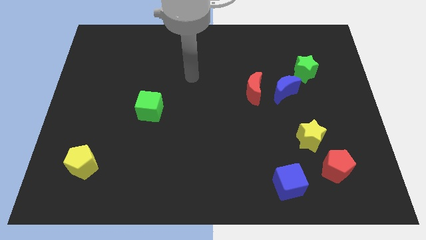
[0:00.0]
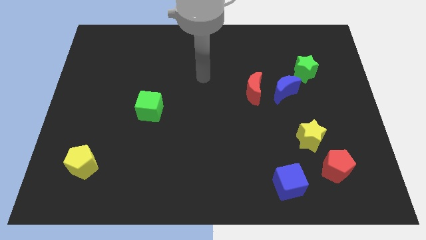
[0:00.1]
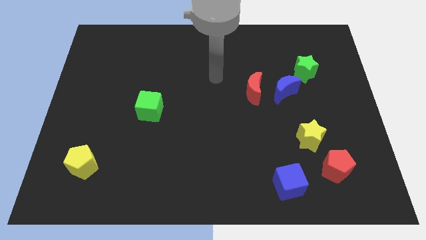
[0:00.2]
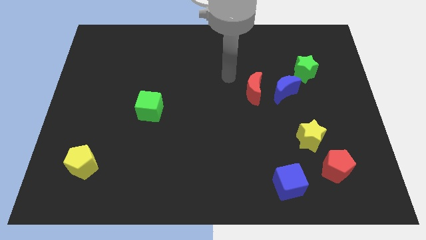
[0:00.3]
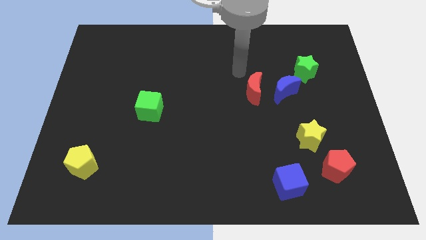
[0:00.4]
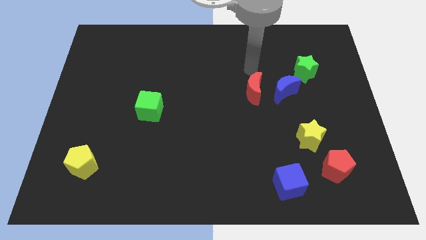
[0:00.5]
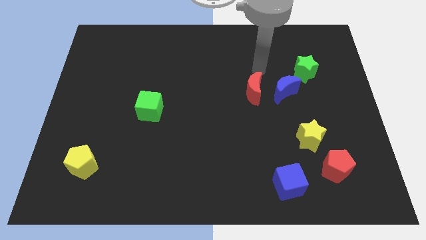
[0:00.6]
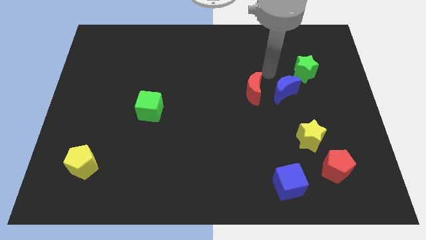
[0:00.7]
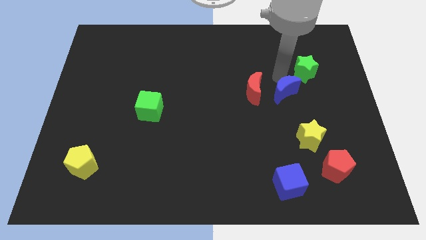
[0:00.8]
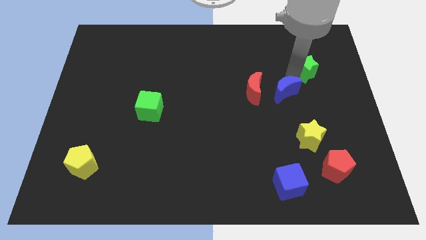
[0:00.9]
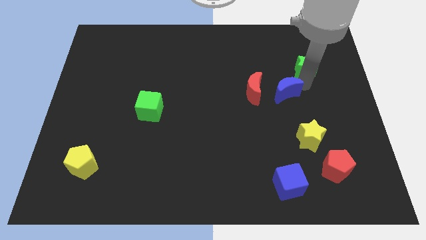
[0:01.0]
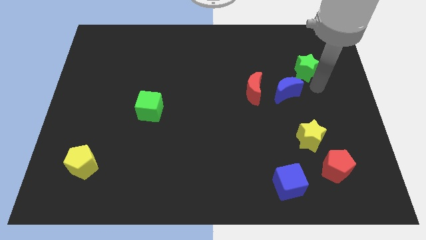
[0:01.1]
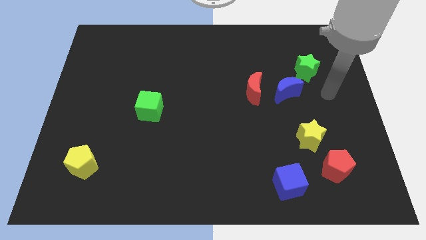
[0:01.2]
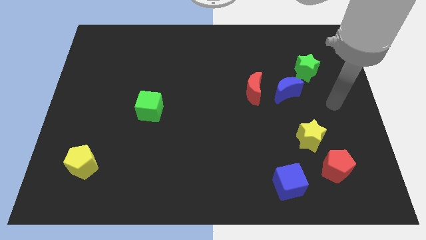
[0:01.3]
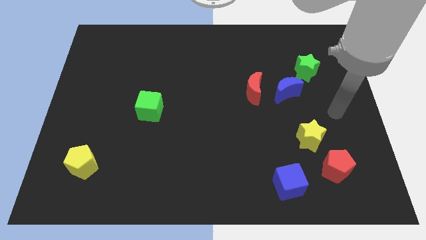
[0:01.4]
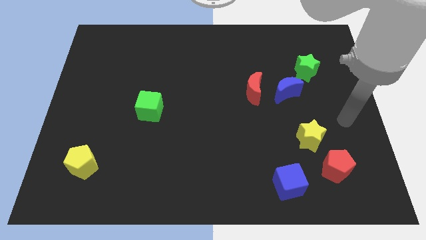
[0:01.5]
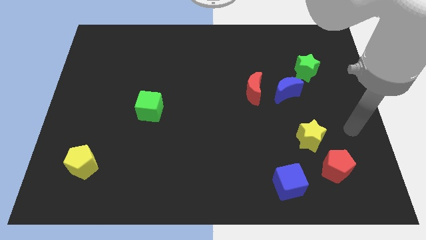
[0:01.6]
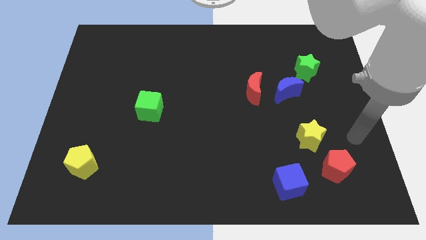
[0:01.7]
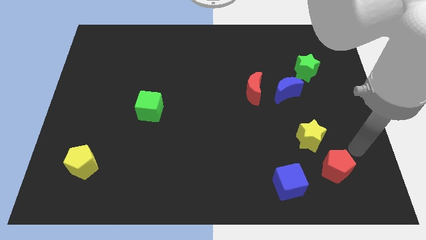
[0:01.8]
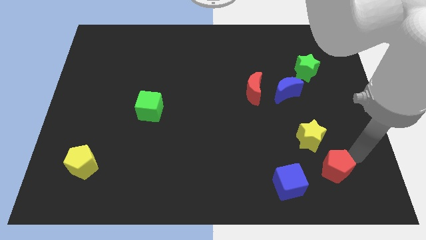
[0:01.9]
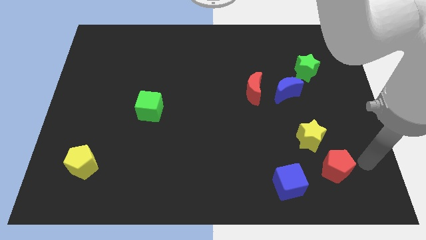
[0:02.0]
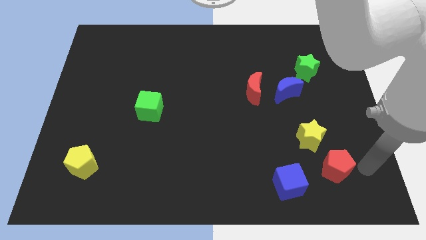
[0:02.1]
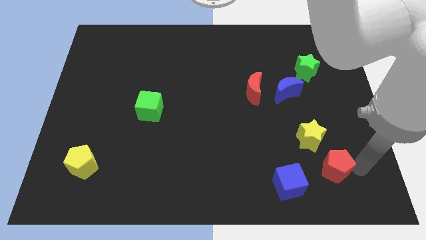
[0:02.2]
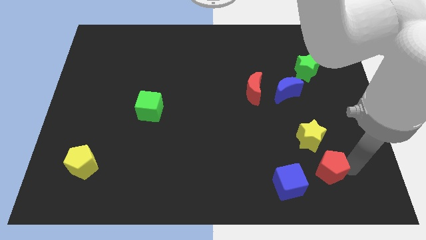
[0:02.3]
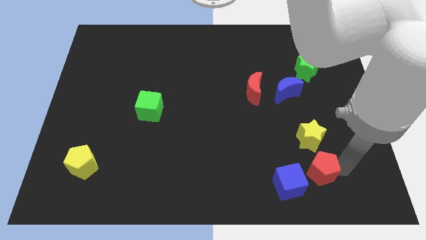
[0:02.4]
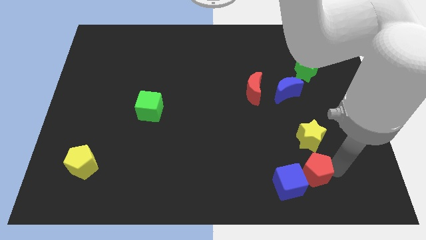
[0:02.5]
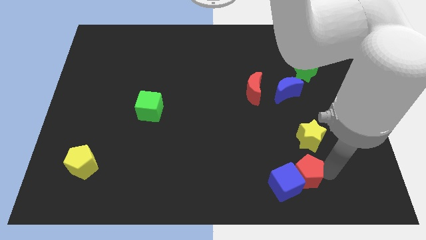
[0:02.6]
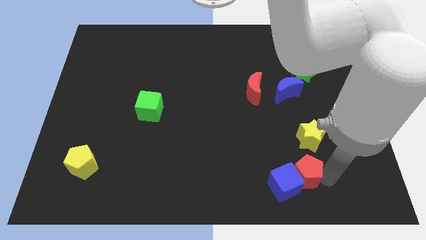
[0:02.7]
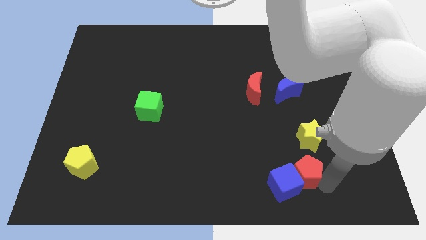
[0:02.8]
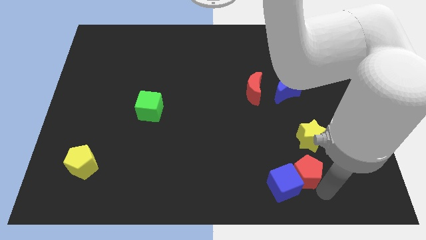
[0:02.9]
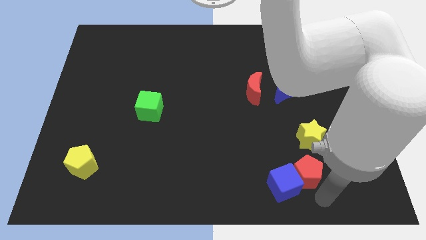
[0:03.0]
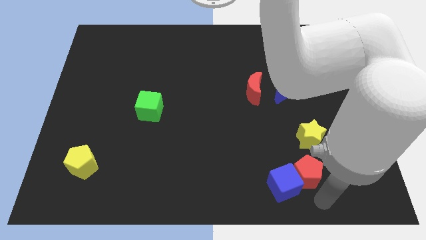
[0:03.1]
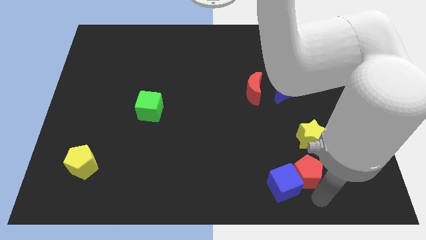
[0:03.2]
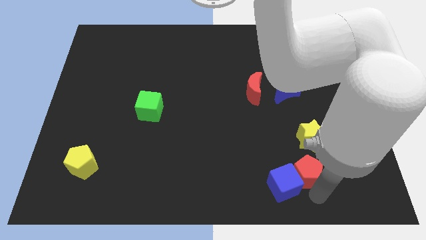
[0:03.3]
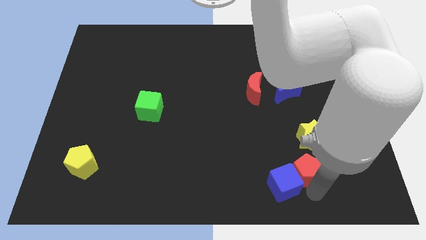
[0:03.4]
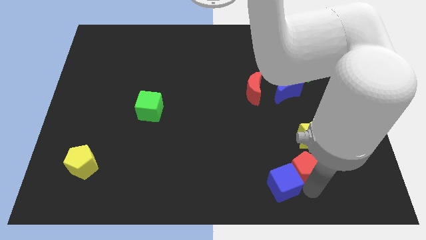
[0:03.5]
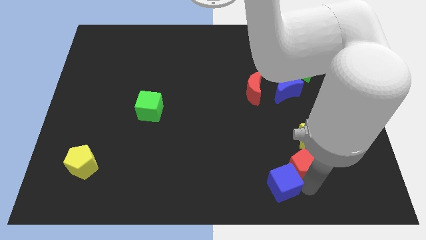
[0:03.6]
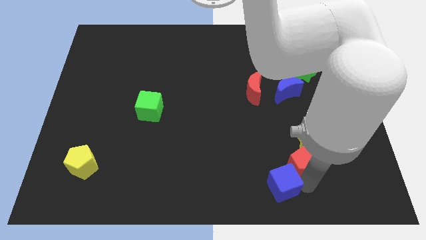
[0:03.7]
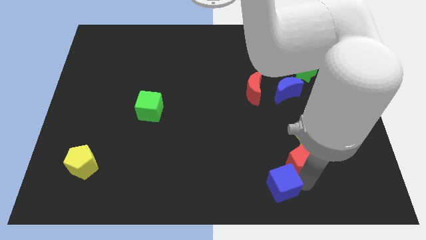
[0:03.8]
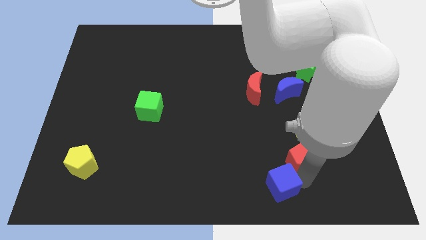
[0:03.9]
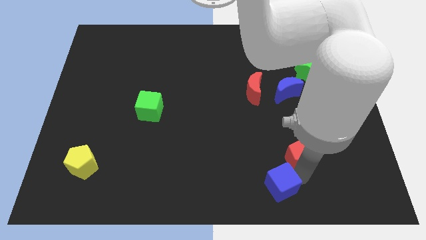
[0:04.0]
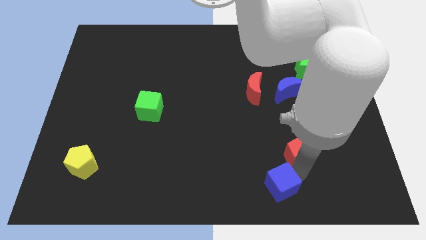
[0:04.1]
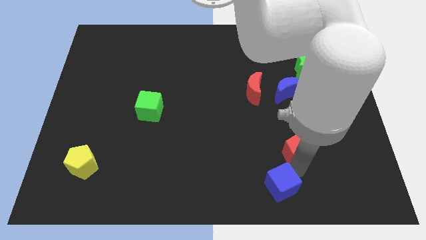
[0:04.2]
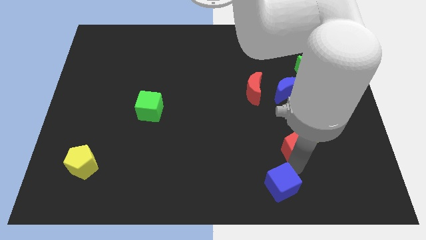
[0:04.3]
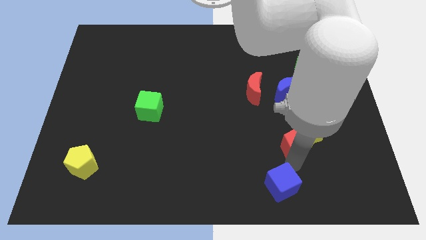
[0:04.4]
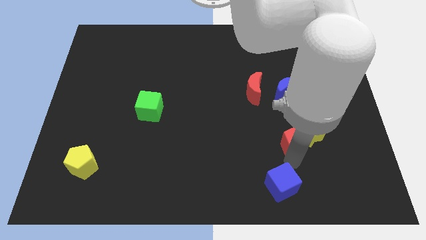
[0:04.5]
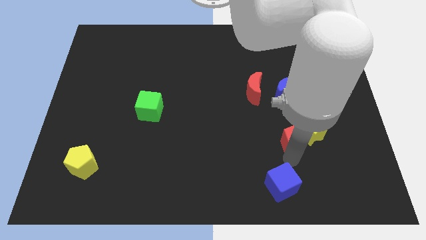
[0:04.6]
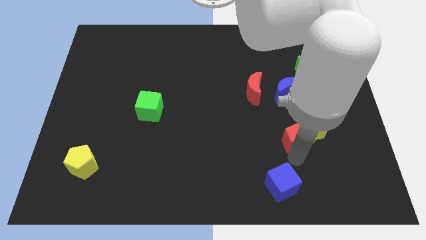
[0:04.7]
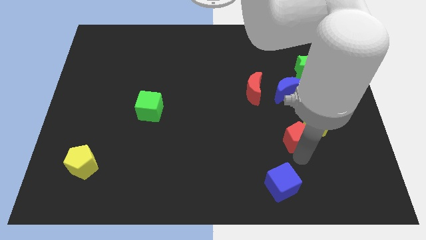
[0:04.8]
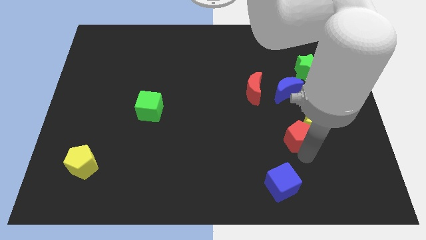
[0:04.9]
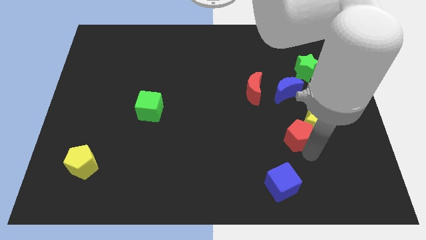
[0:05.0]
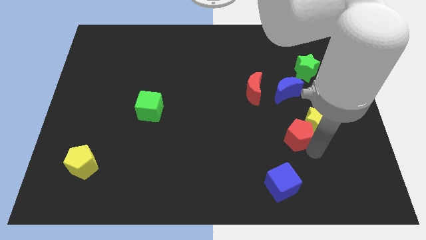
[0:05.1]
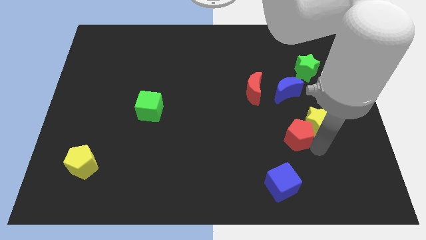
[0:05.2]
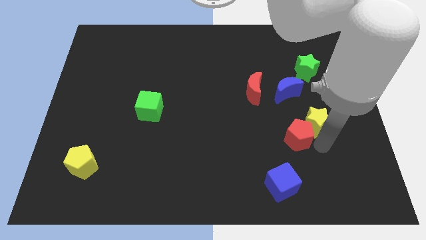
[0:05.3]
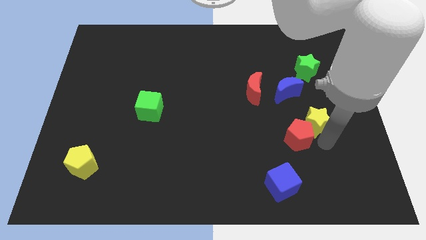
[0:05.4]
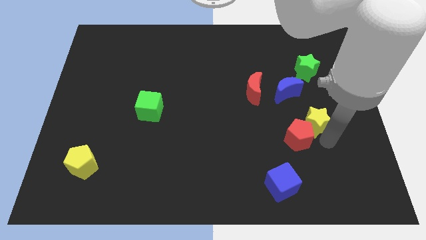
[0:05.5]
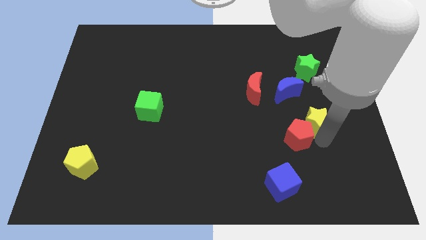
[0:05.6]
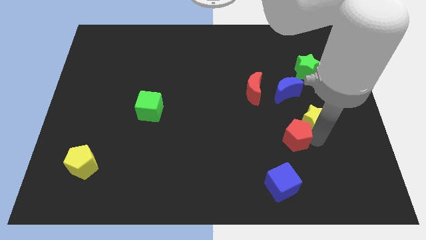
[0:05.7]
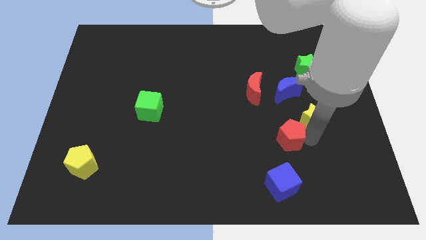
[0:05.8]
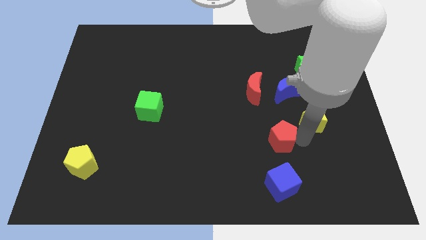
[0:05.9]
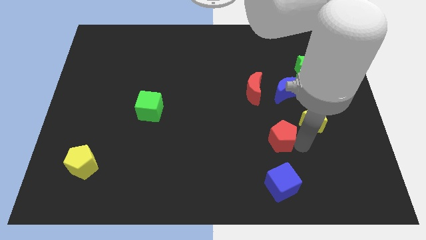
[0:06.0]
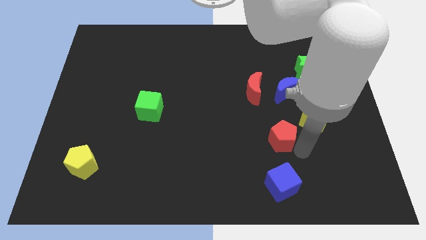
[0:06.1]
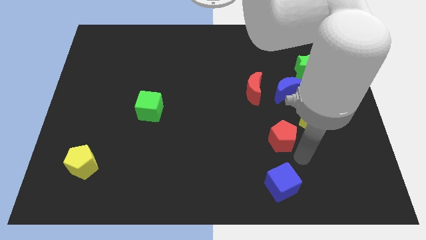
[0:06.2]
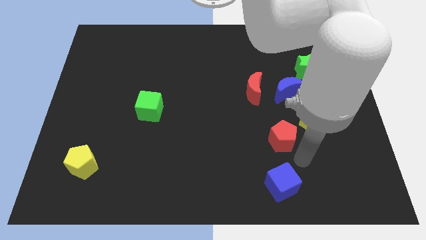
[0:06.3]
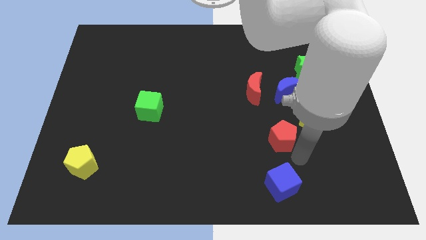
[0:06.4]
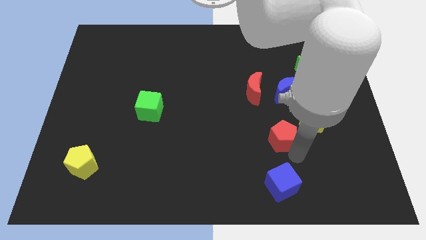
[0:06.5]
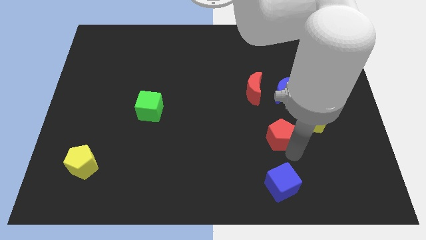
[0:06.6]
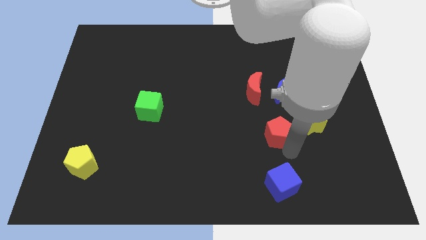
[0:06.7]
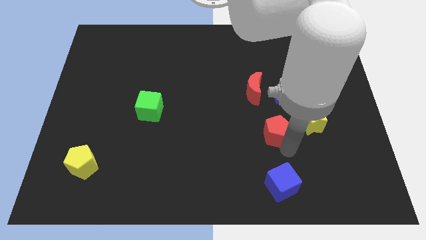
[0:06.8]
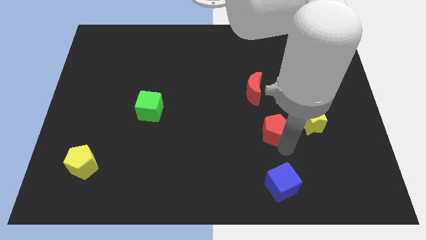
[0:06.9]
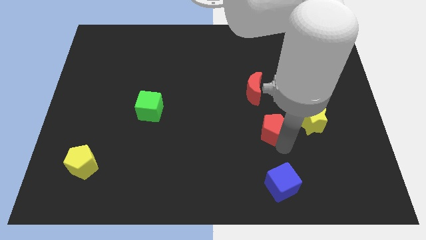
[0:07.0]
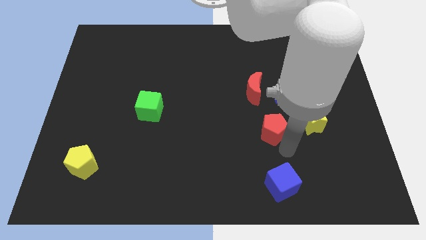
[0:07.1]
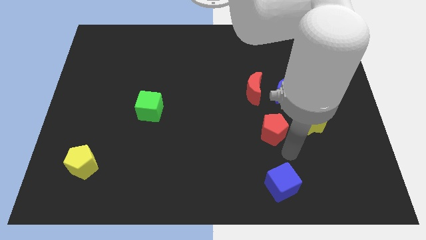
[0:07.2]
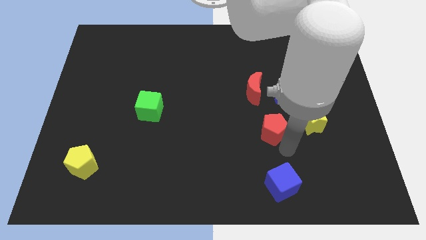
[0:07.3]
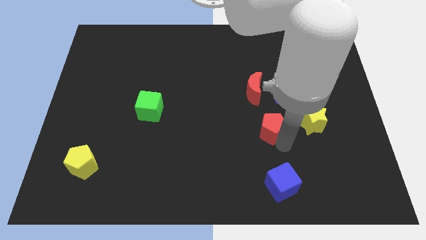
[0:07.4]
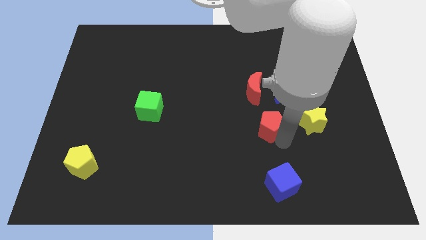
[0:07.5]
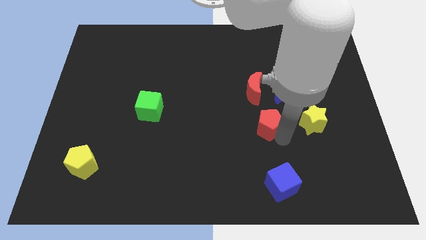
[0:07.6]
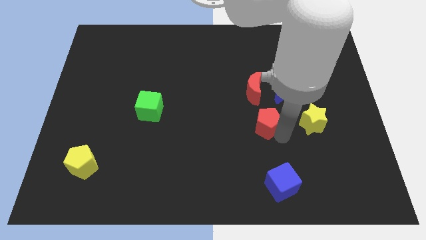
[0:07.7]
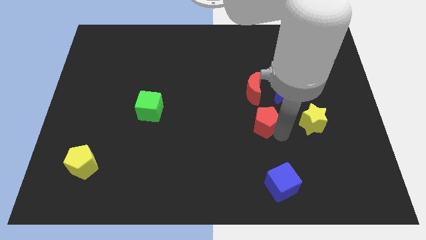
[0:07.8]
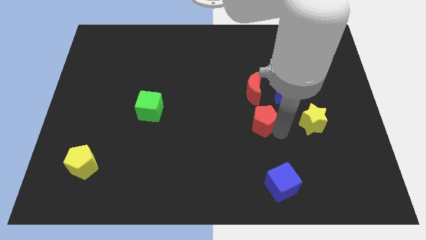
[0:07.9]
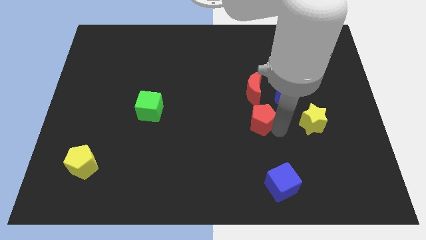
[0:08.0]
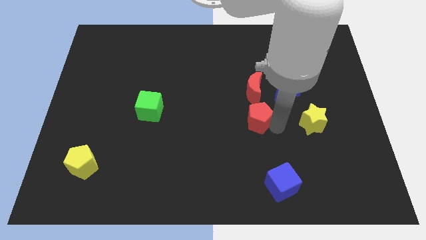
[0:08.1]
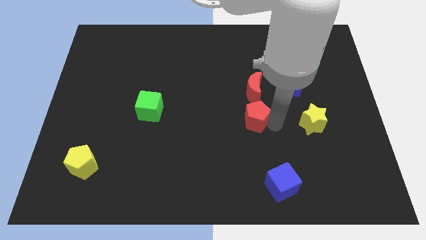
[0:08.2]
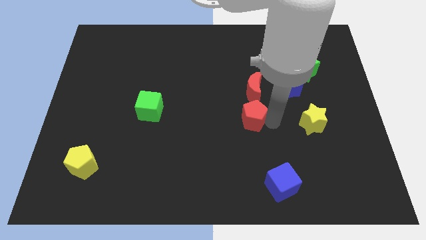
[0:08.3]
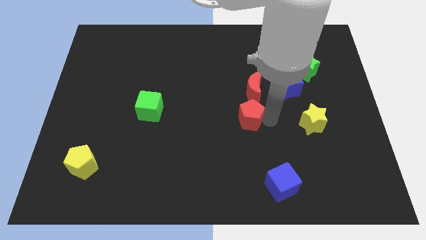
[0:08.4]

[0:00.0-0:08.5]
push the red pentagon to the bottom left of the red moon
